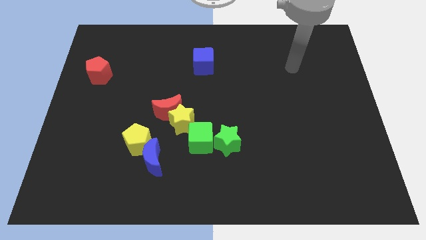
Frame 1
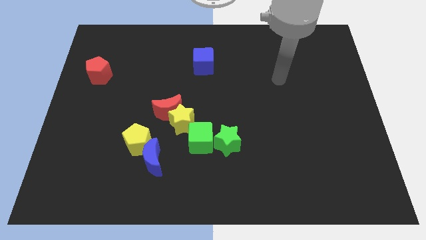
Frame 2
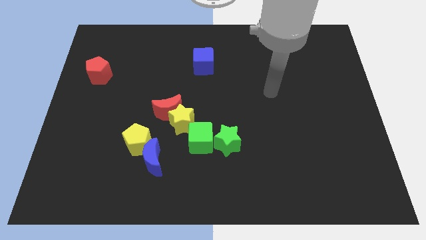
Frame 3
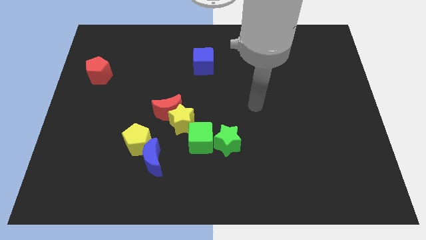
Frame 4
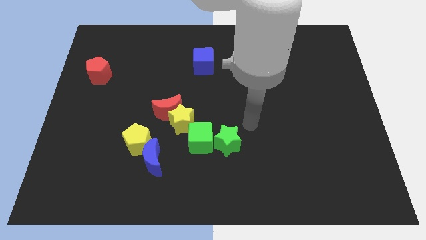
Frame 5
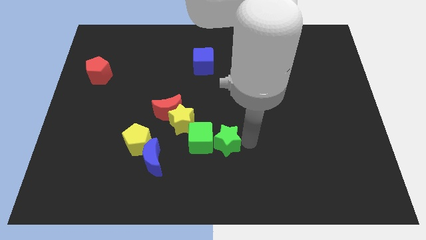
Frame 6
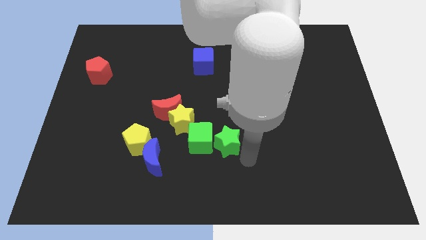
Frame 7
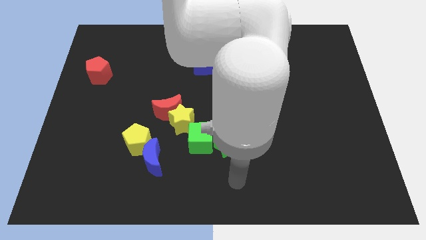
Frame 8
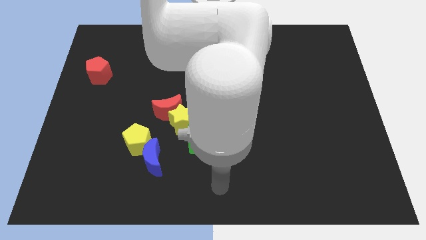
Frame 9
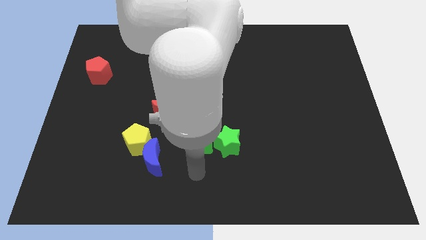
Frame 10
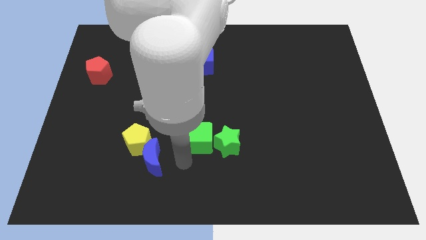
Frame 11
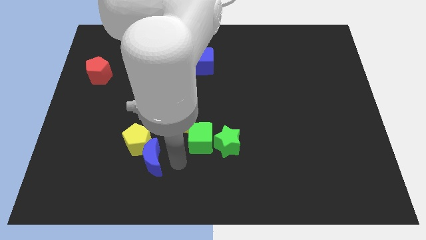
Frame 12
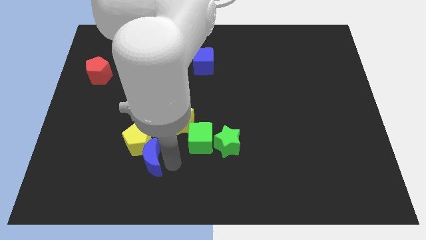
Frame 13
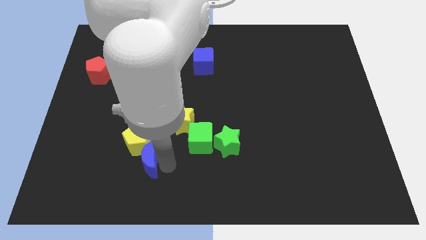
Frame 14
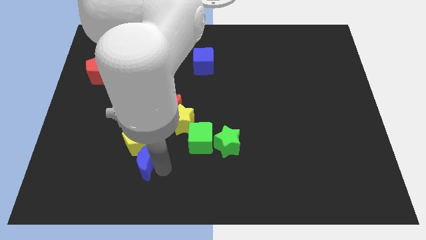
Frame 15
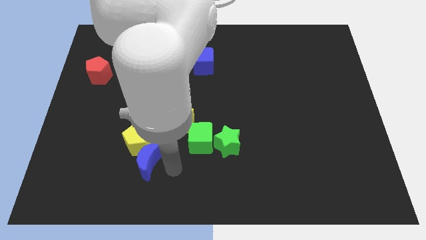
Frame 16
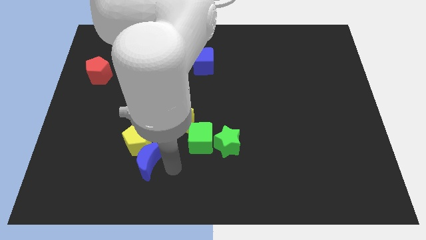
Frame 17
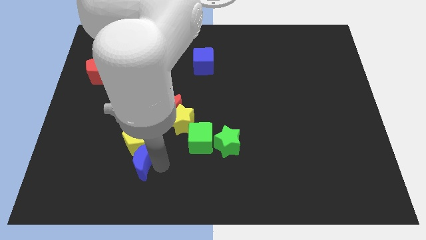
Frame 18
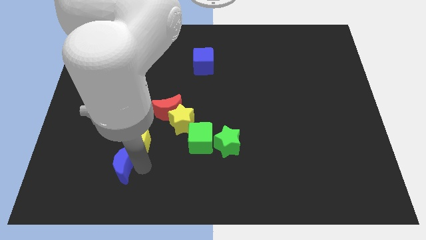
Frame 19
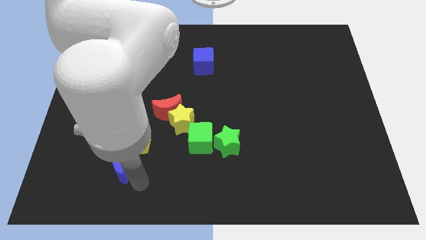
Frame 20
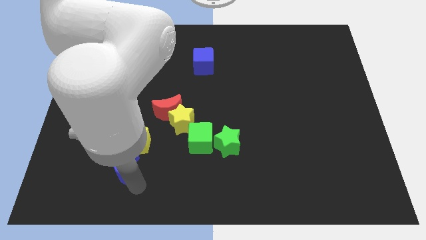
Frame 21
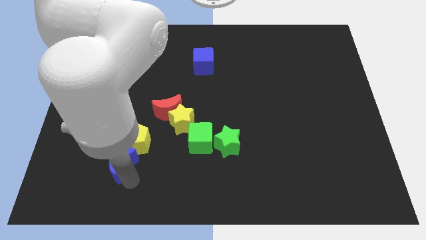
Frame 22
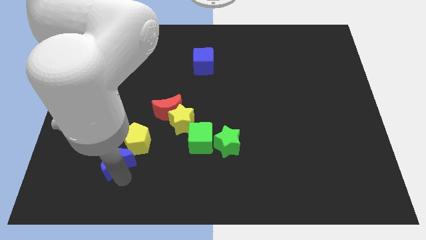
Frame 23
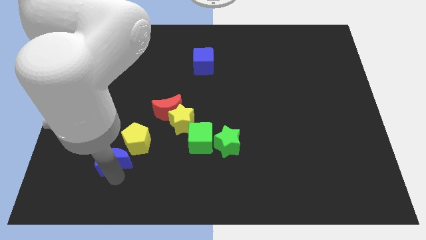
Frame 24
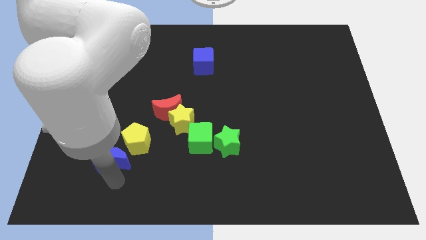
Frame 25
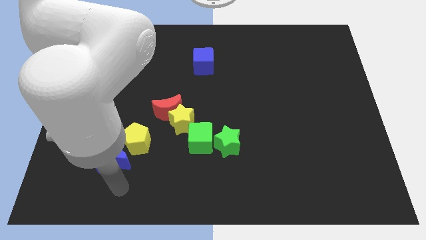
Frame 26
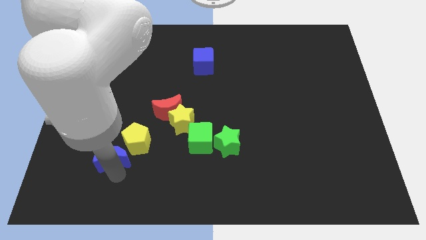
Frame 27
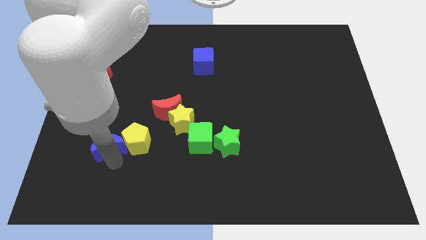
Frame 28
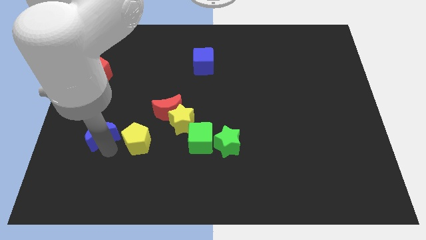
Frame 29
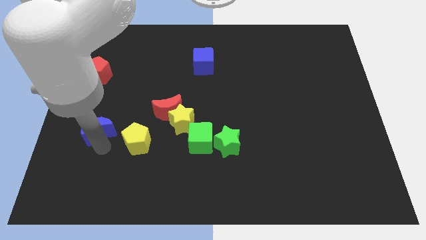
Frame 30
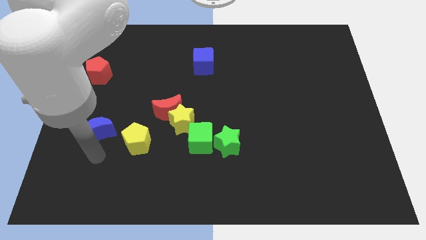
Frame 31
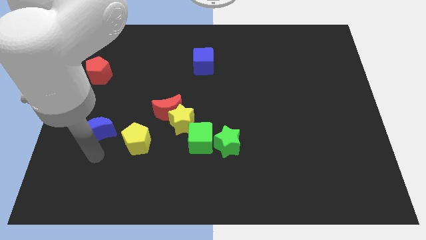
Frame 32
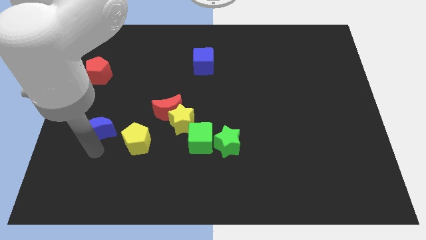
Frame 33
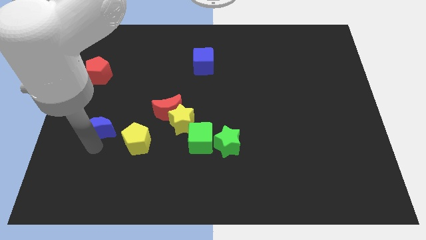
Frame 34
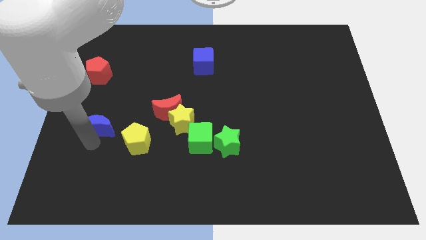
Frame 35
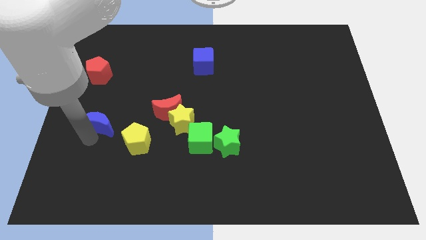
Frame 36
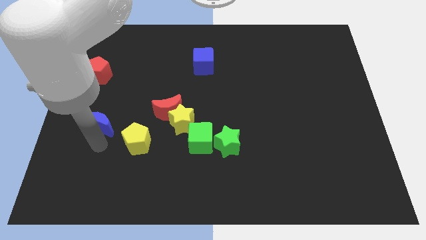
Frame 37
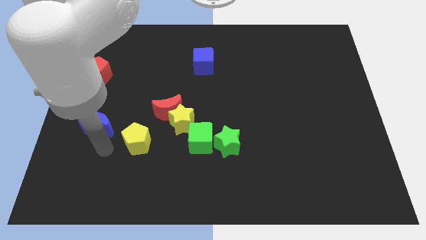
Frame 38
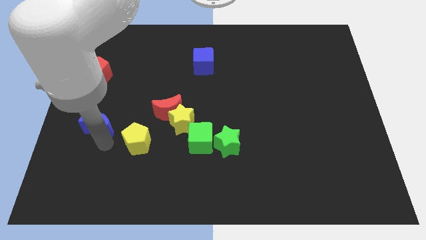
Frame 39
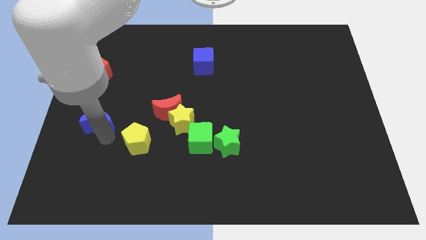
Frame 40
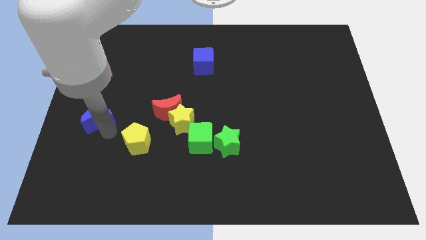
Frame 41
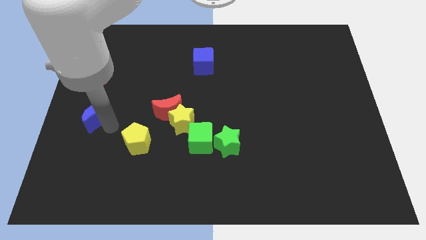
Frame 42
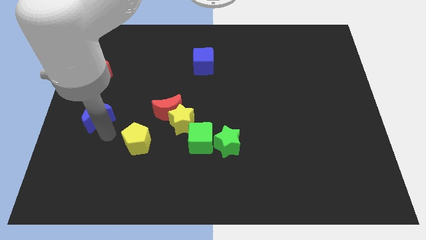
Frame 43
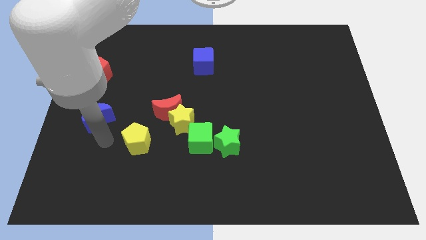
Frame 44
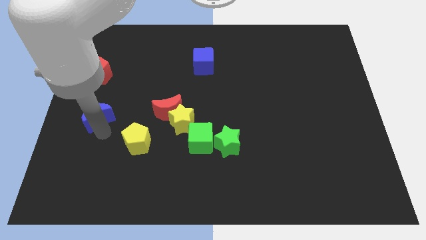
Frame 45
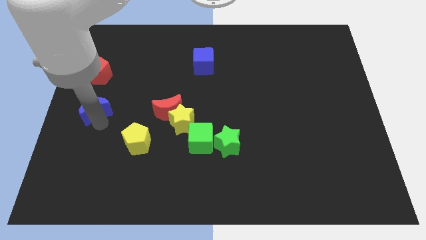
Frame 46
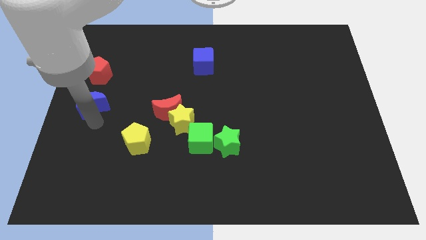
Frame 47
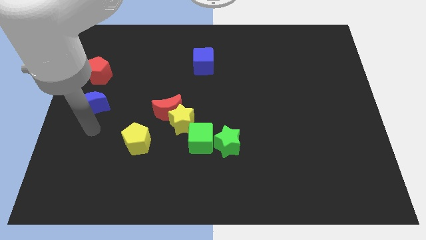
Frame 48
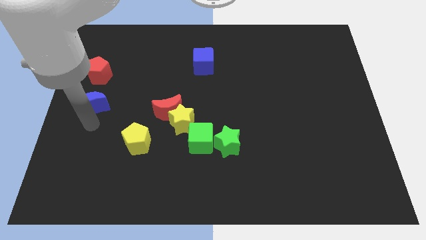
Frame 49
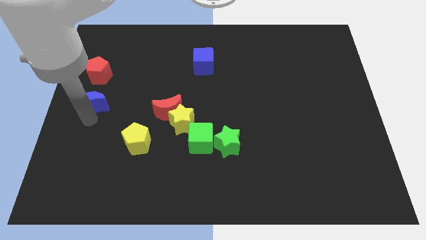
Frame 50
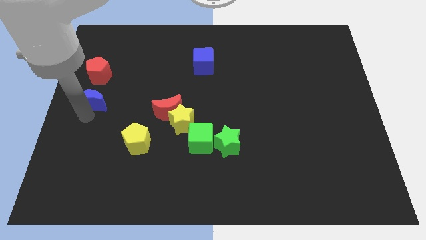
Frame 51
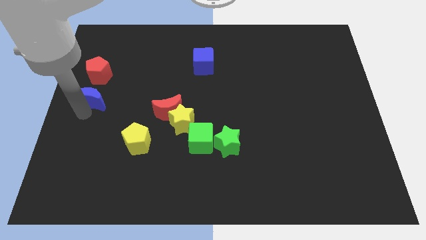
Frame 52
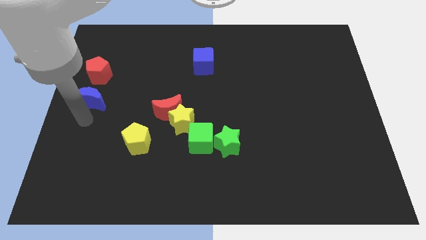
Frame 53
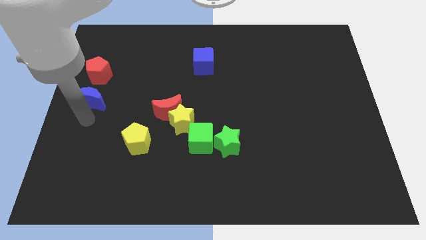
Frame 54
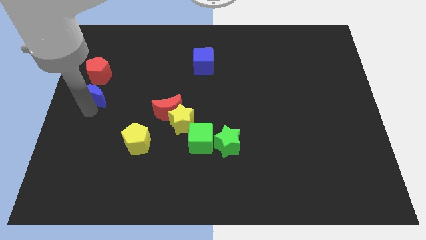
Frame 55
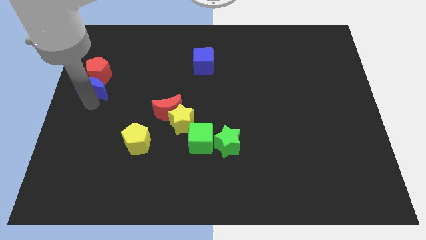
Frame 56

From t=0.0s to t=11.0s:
slide the blue moon towards the red pentagon

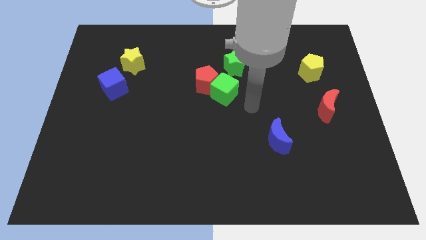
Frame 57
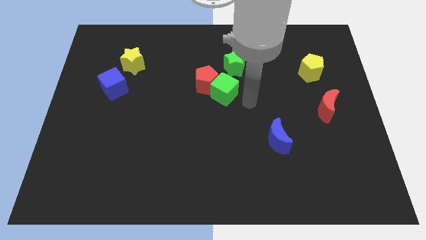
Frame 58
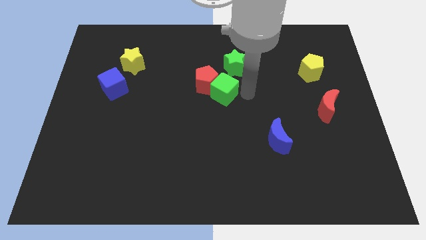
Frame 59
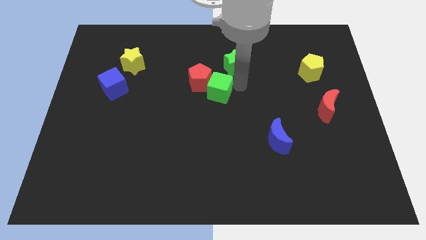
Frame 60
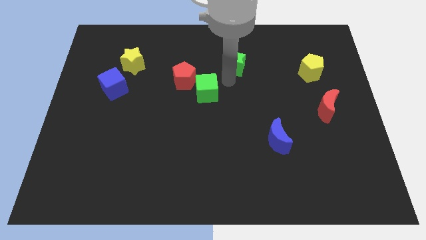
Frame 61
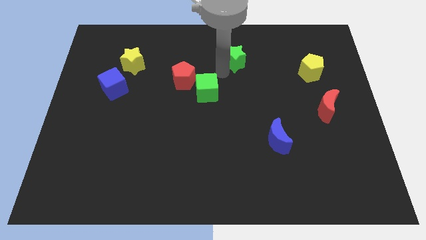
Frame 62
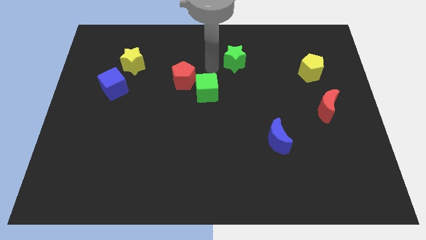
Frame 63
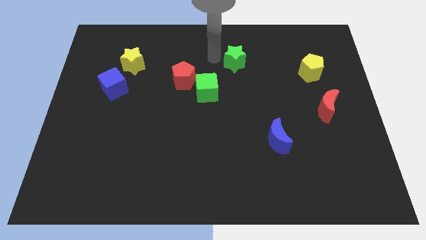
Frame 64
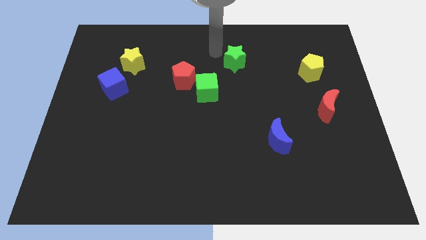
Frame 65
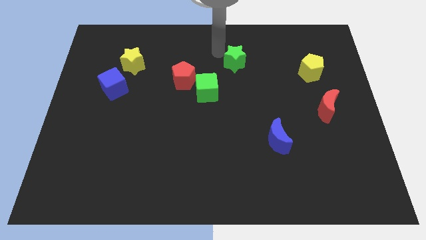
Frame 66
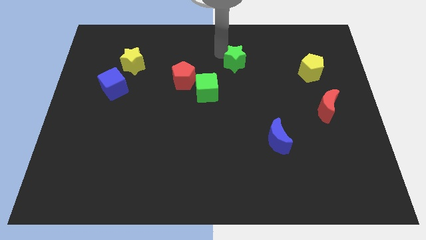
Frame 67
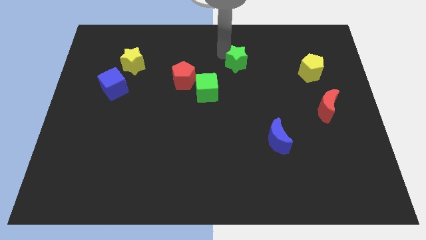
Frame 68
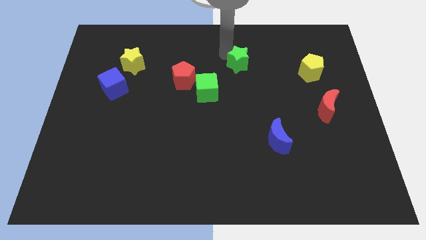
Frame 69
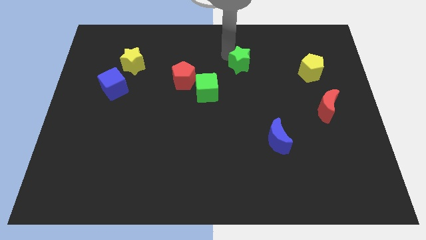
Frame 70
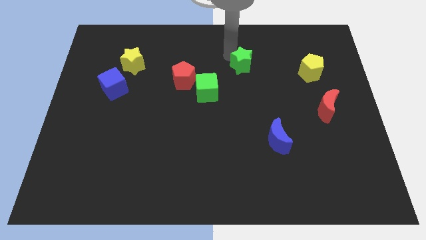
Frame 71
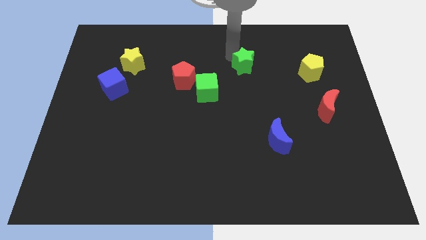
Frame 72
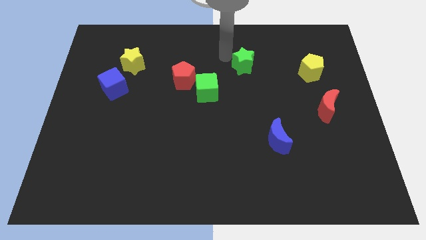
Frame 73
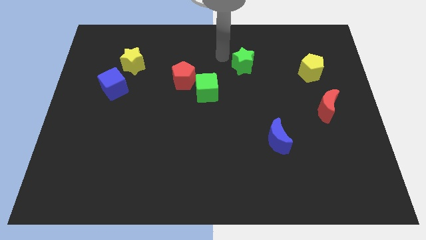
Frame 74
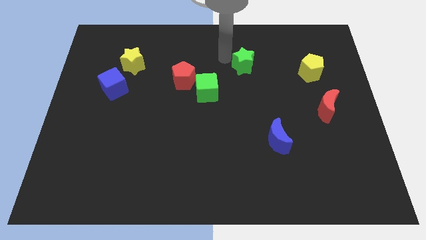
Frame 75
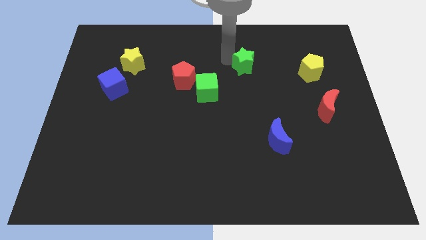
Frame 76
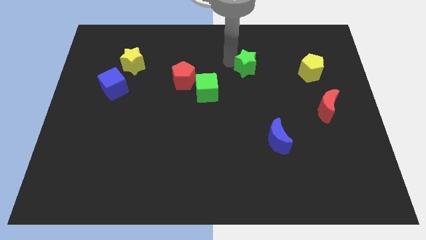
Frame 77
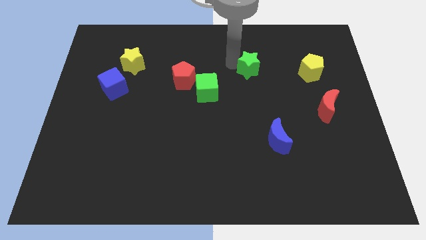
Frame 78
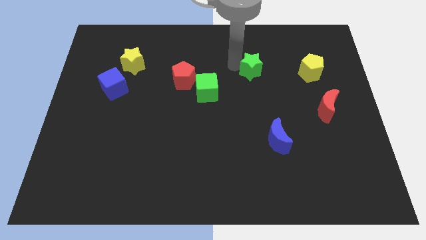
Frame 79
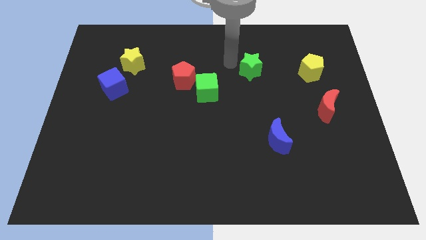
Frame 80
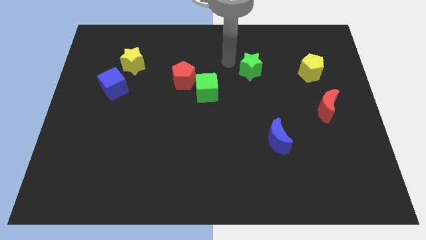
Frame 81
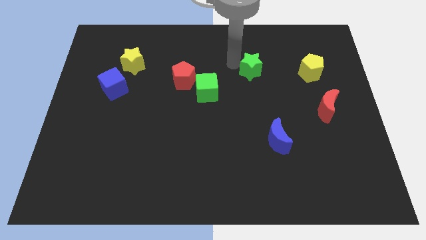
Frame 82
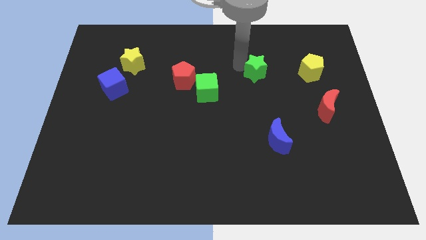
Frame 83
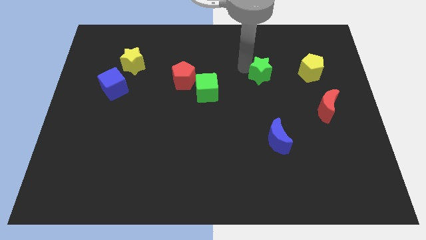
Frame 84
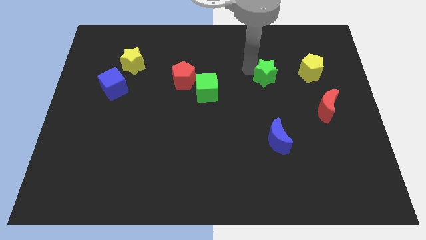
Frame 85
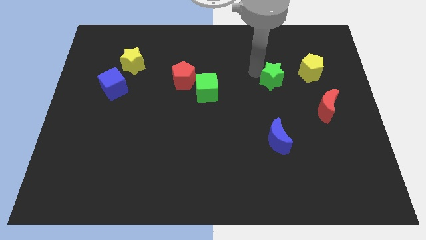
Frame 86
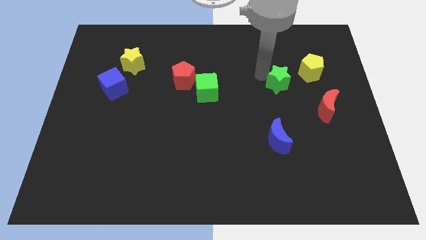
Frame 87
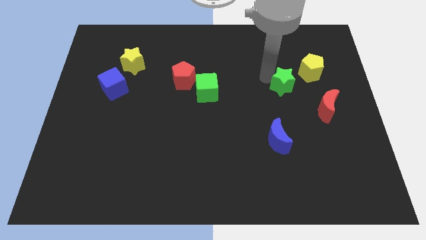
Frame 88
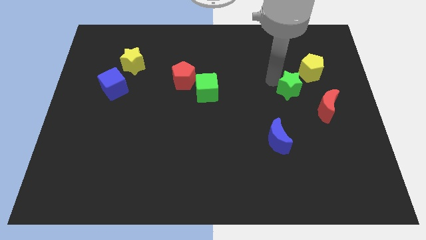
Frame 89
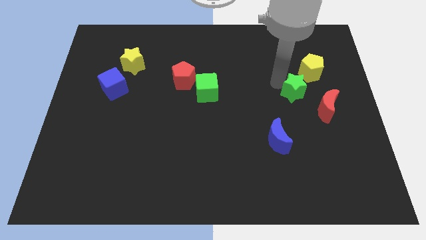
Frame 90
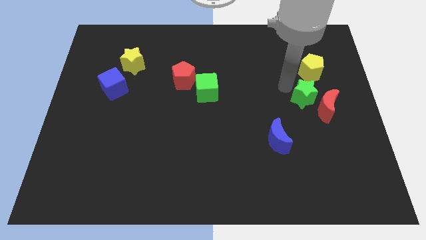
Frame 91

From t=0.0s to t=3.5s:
slide the green star towards the red moon
